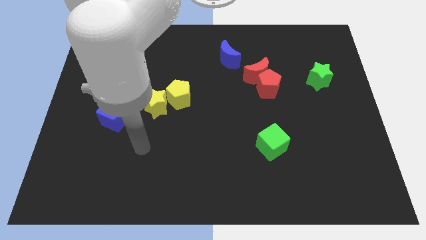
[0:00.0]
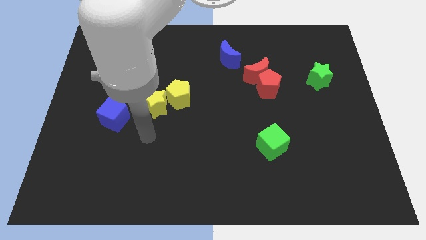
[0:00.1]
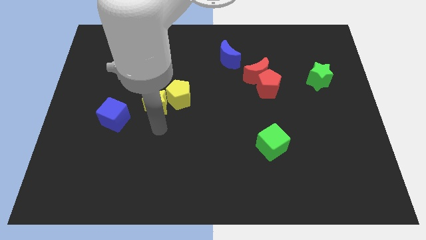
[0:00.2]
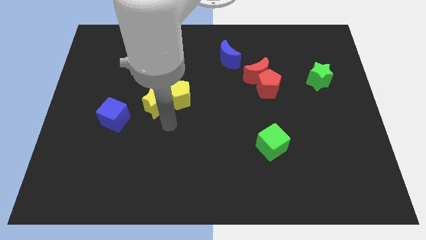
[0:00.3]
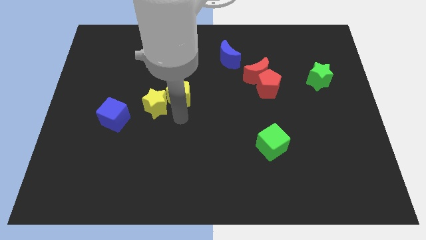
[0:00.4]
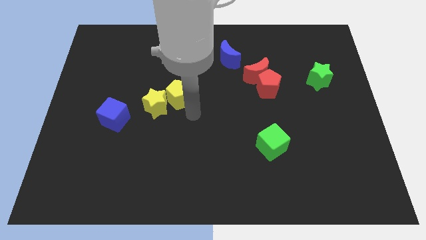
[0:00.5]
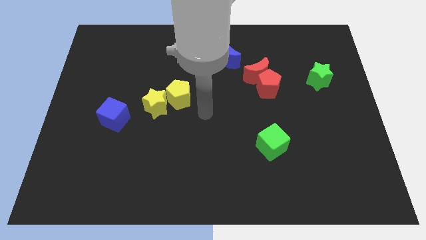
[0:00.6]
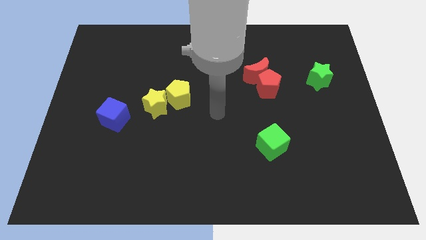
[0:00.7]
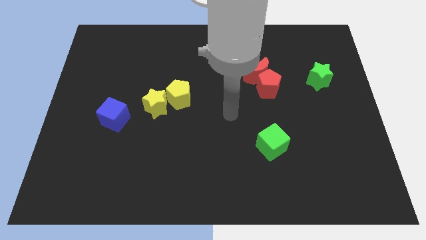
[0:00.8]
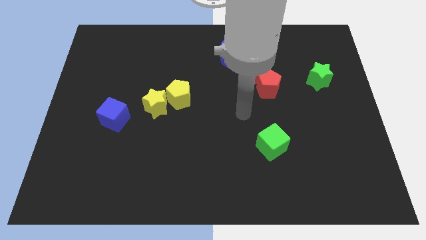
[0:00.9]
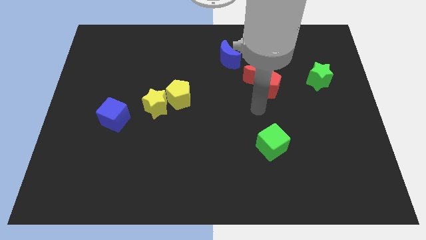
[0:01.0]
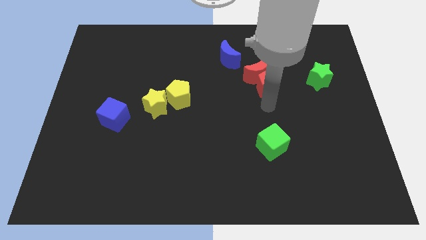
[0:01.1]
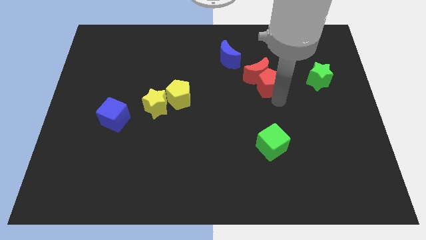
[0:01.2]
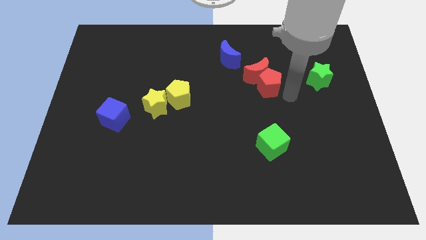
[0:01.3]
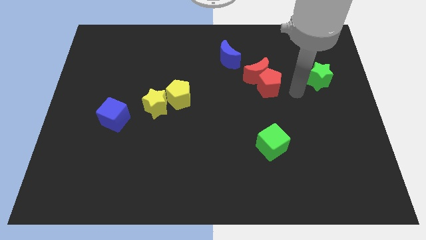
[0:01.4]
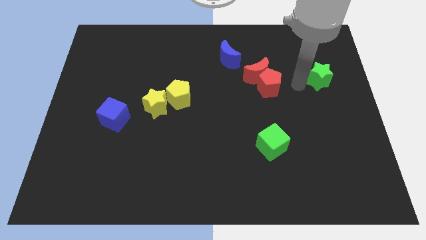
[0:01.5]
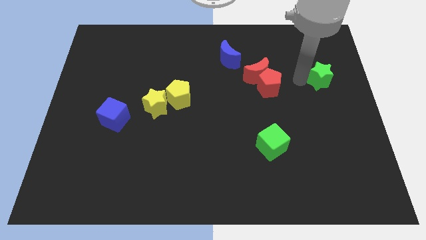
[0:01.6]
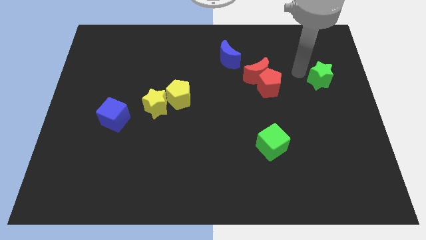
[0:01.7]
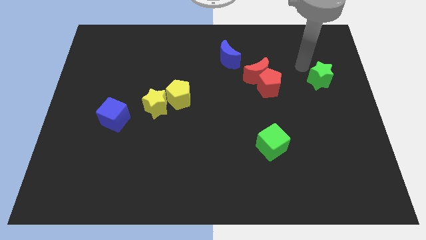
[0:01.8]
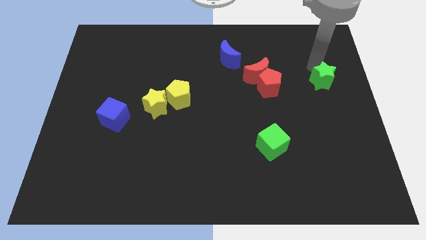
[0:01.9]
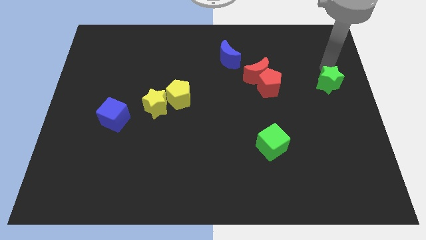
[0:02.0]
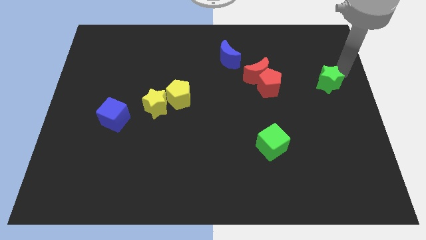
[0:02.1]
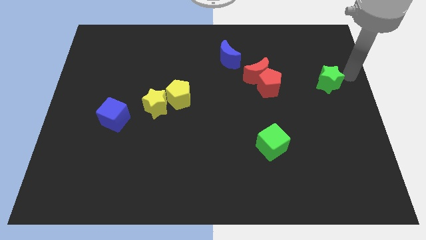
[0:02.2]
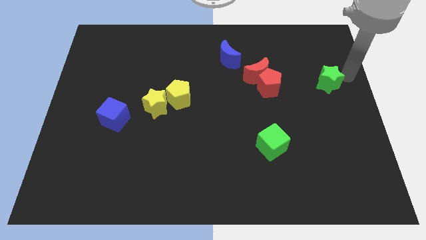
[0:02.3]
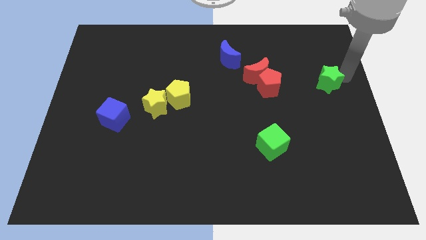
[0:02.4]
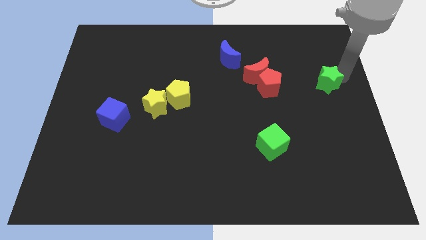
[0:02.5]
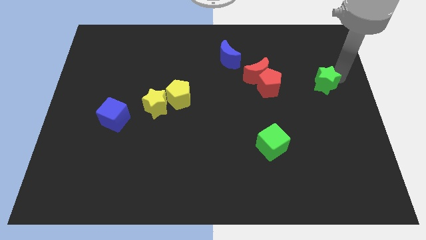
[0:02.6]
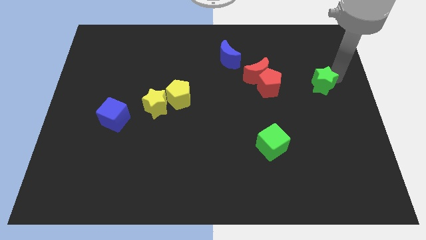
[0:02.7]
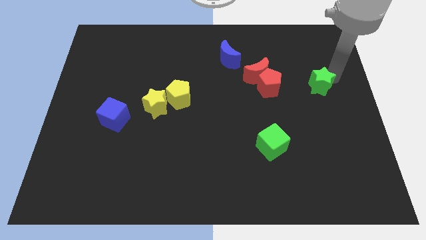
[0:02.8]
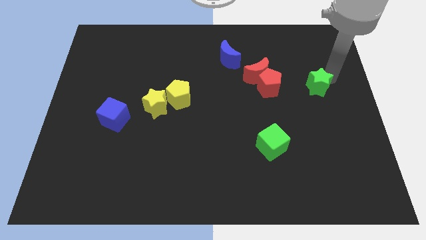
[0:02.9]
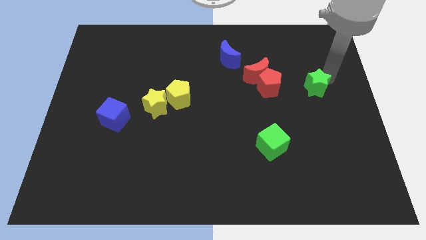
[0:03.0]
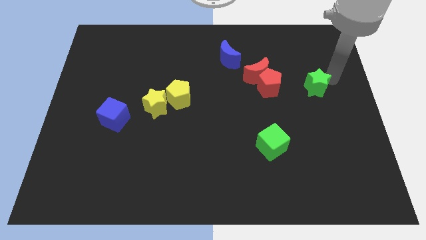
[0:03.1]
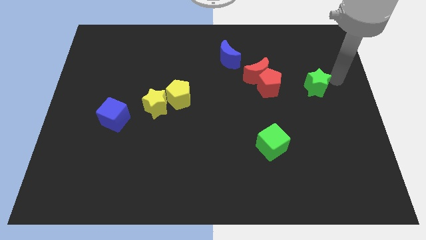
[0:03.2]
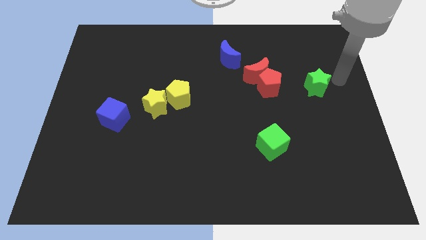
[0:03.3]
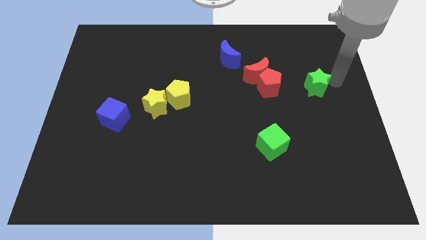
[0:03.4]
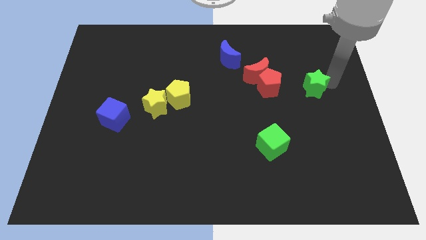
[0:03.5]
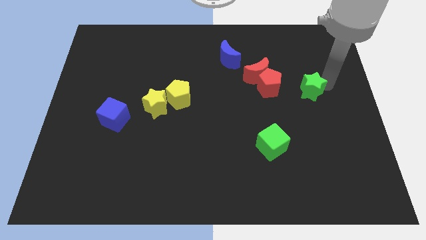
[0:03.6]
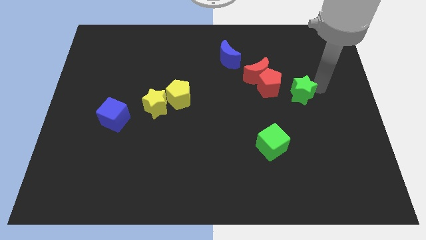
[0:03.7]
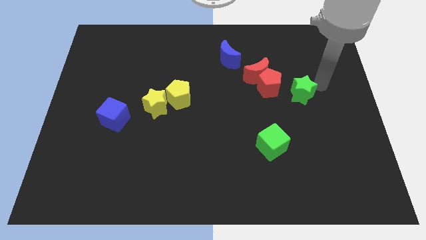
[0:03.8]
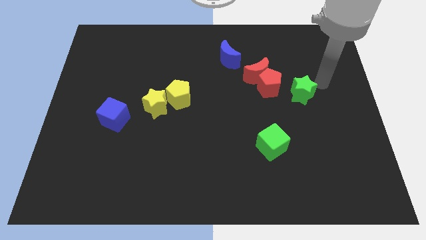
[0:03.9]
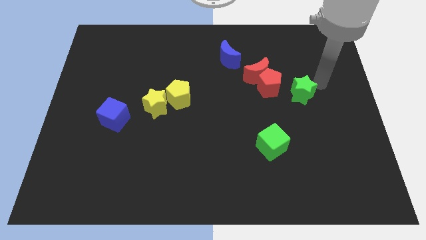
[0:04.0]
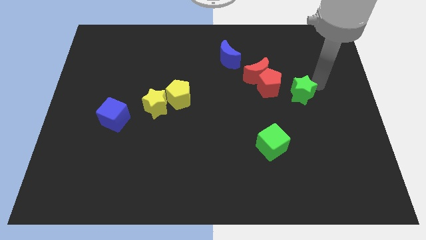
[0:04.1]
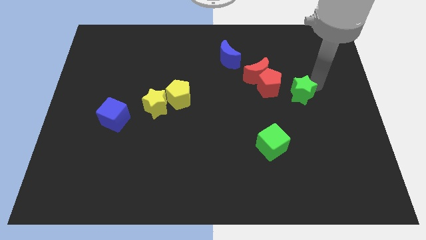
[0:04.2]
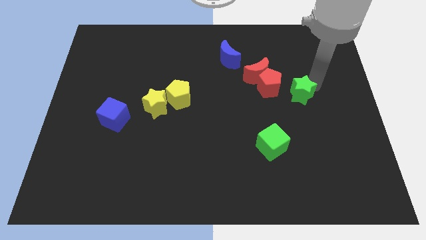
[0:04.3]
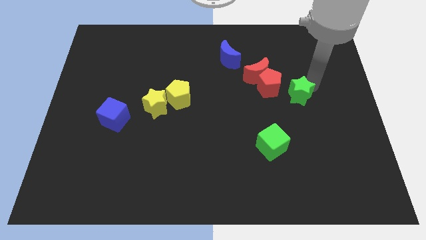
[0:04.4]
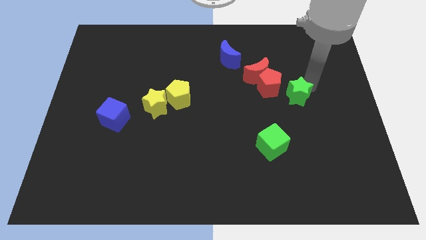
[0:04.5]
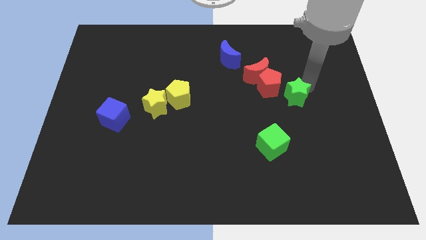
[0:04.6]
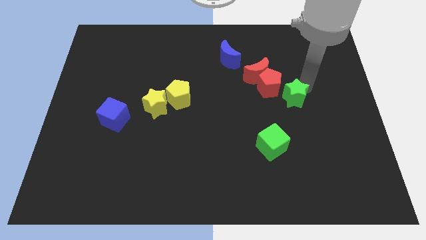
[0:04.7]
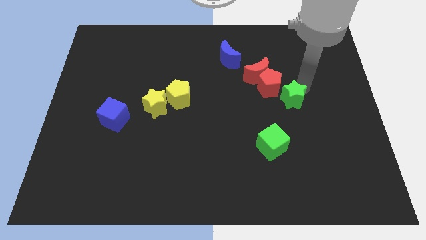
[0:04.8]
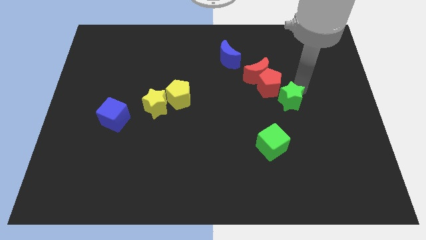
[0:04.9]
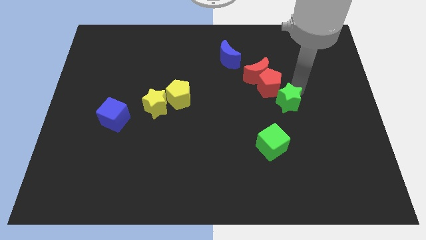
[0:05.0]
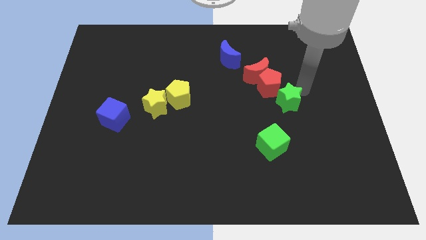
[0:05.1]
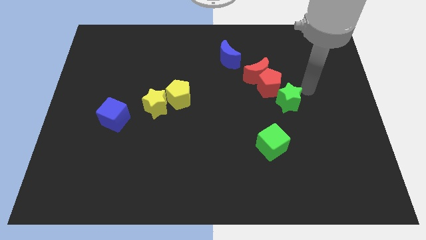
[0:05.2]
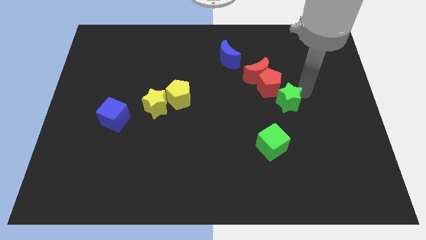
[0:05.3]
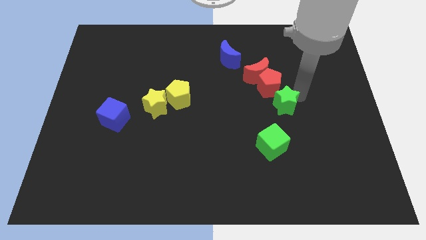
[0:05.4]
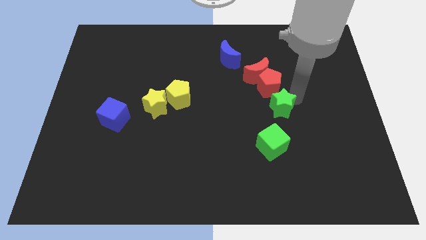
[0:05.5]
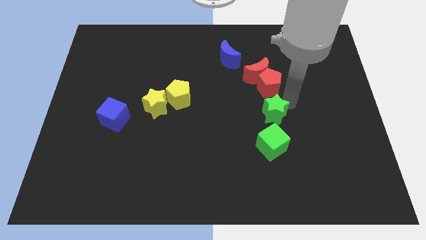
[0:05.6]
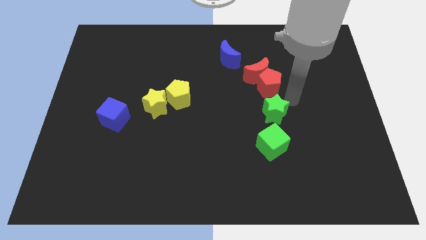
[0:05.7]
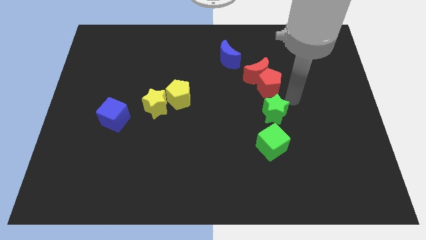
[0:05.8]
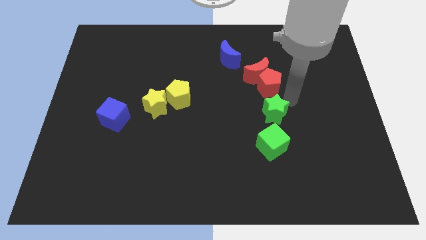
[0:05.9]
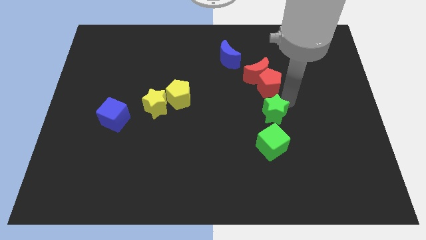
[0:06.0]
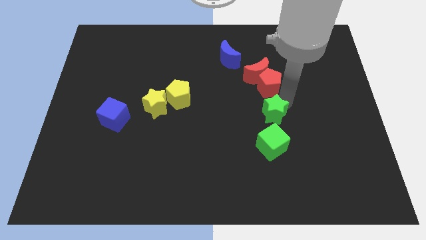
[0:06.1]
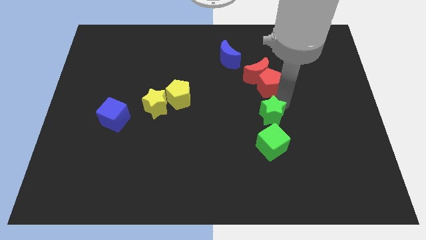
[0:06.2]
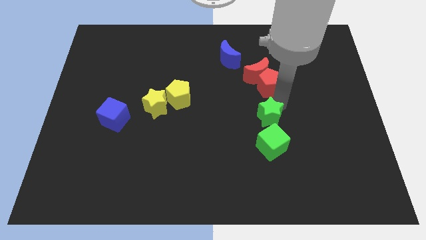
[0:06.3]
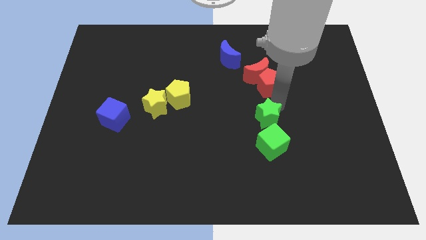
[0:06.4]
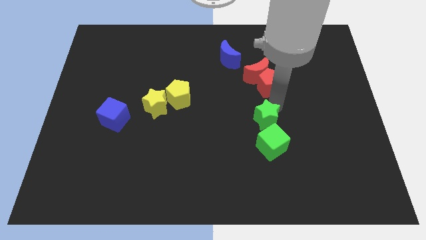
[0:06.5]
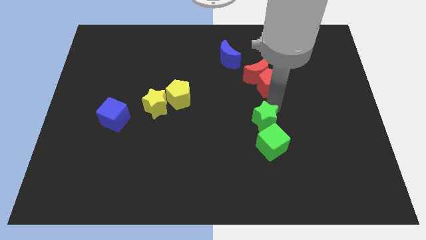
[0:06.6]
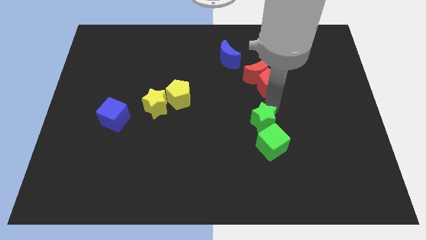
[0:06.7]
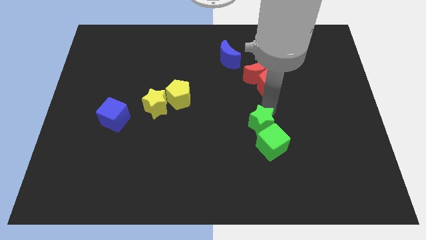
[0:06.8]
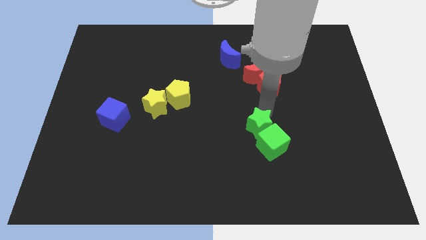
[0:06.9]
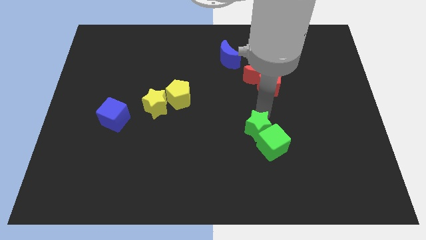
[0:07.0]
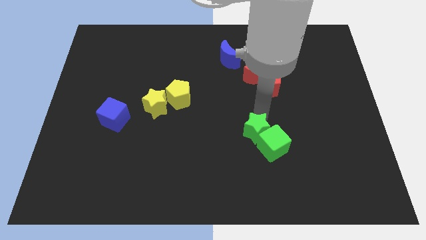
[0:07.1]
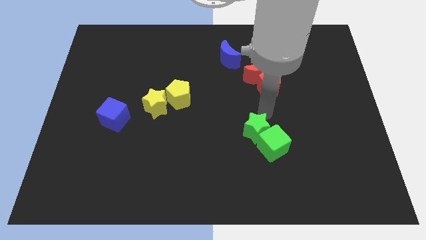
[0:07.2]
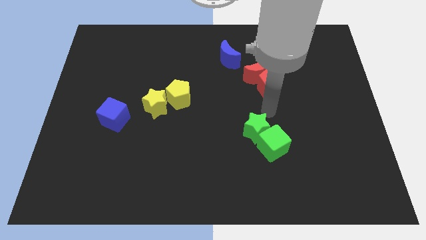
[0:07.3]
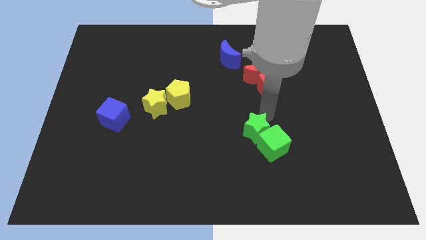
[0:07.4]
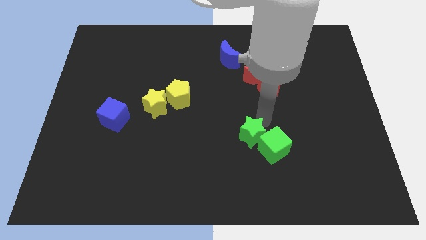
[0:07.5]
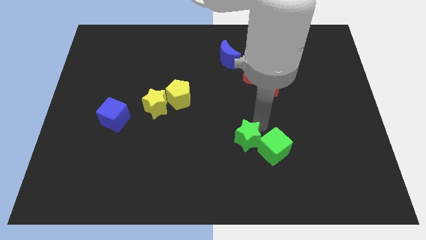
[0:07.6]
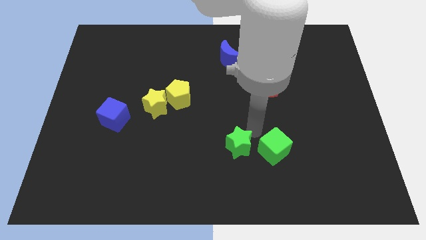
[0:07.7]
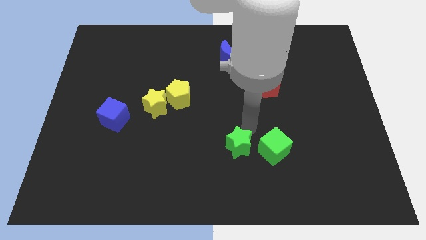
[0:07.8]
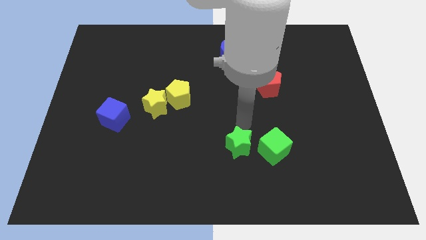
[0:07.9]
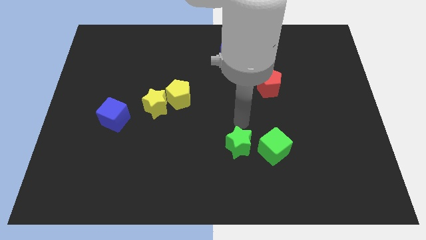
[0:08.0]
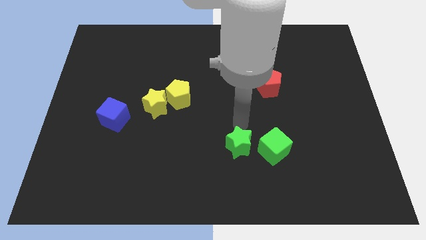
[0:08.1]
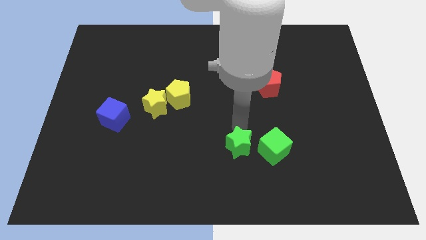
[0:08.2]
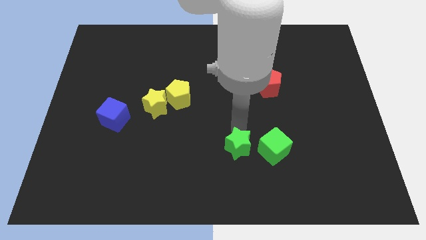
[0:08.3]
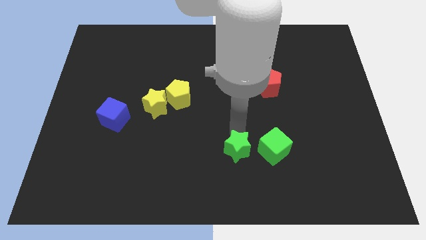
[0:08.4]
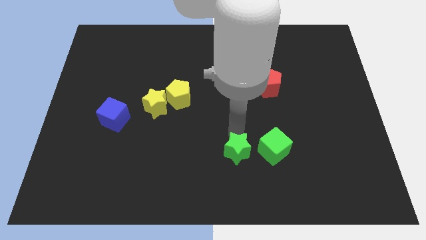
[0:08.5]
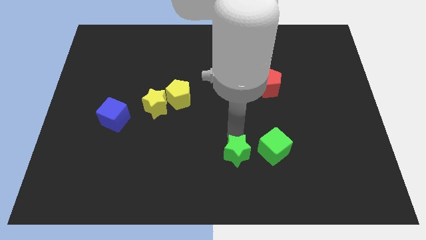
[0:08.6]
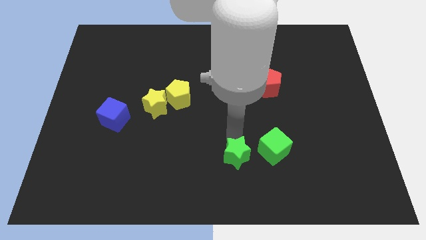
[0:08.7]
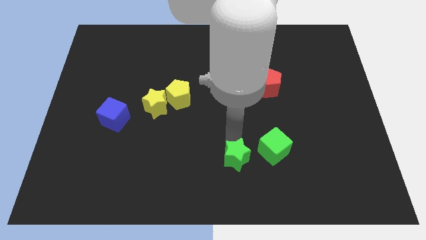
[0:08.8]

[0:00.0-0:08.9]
put the green star to the bottom side
